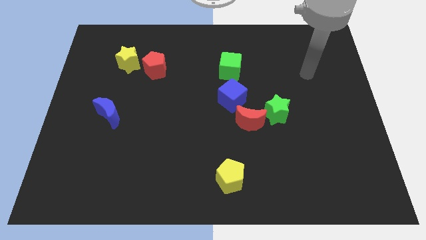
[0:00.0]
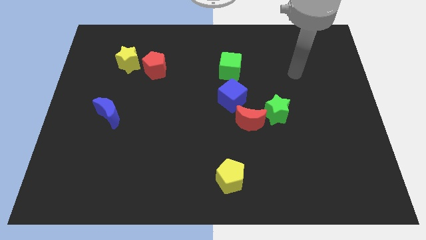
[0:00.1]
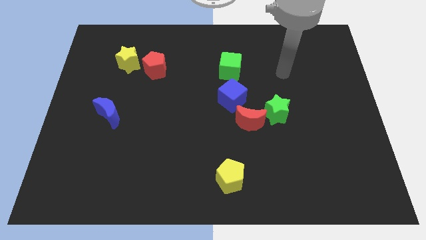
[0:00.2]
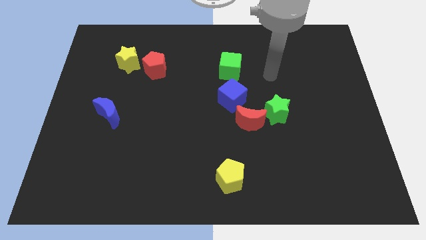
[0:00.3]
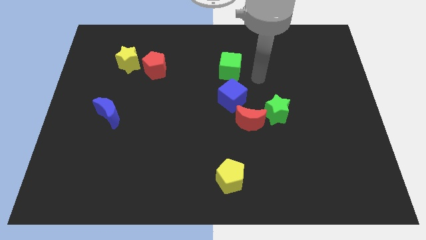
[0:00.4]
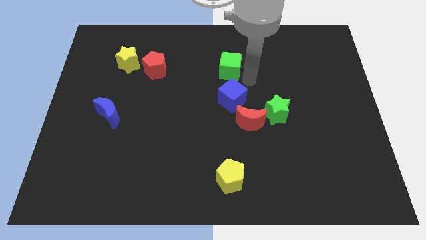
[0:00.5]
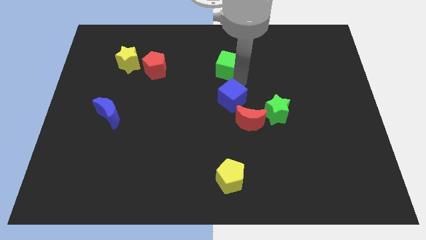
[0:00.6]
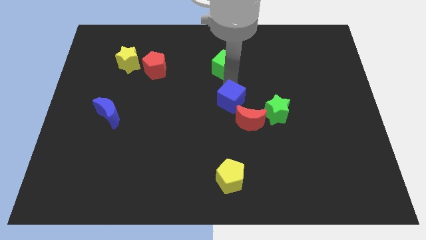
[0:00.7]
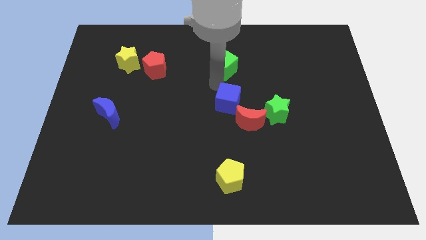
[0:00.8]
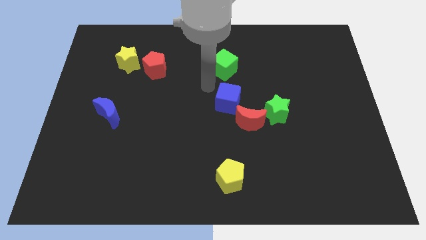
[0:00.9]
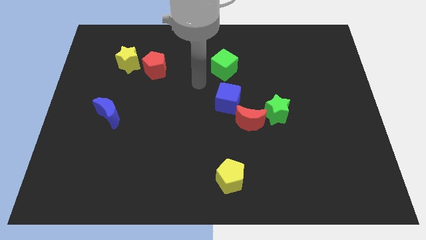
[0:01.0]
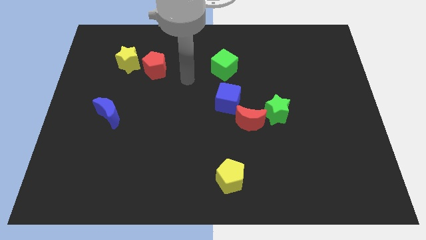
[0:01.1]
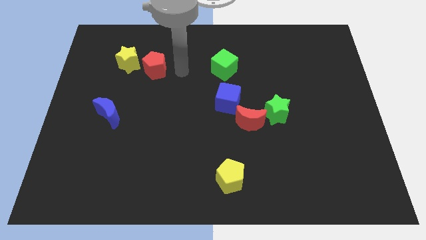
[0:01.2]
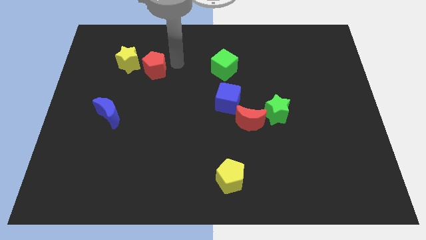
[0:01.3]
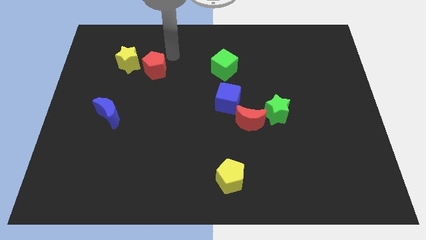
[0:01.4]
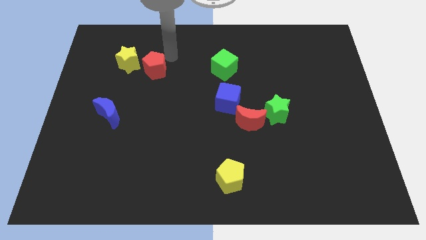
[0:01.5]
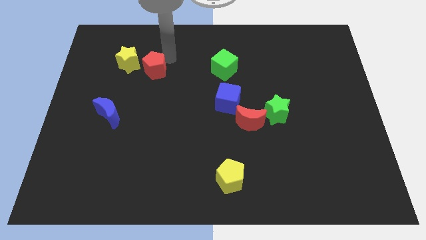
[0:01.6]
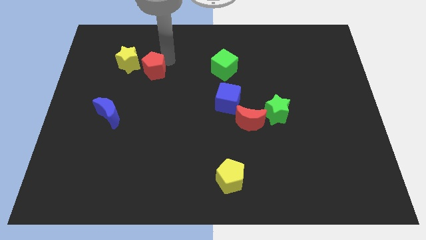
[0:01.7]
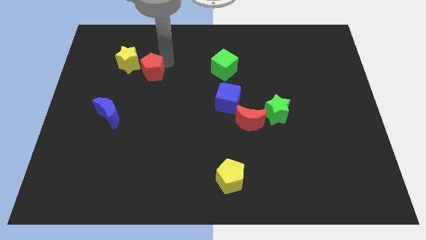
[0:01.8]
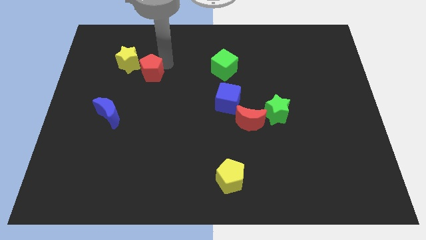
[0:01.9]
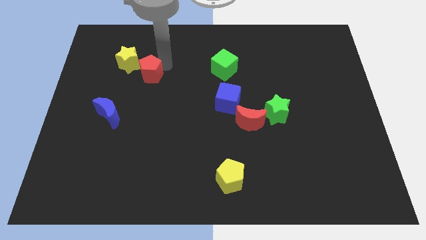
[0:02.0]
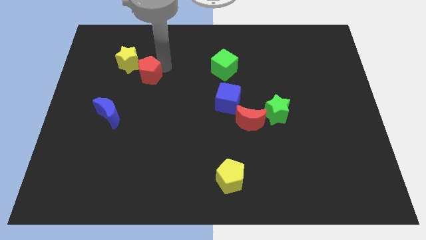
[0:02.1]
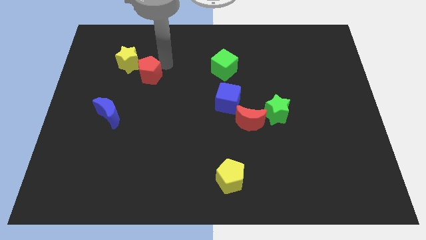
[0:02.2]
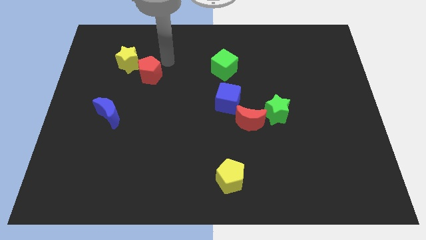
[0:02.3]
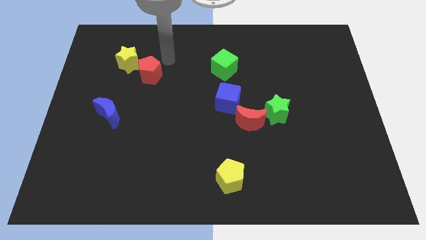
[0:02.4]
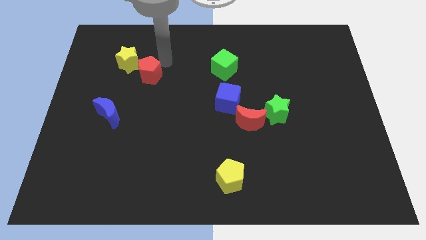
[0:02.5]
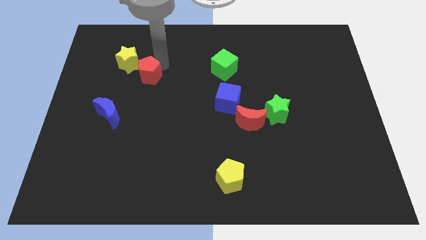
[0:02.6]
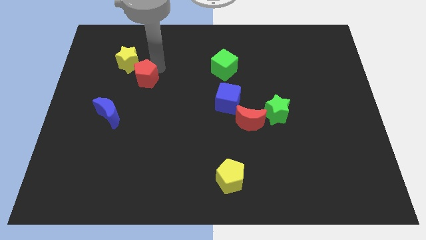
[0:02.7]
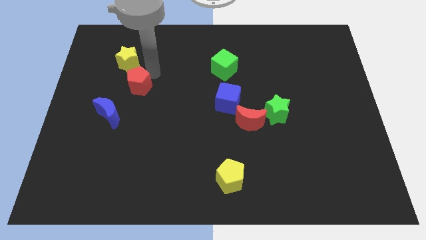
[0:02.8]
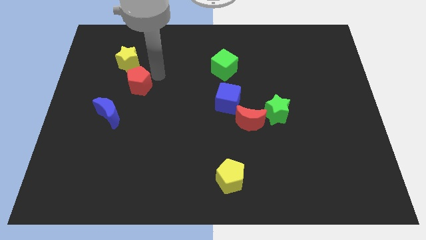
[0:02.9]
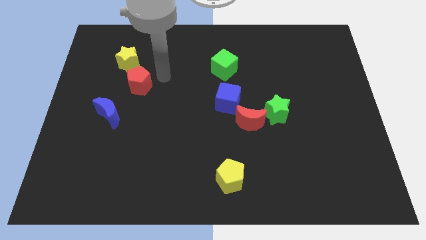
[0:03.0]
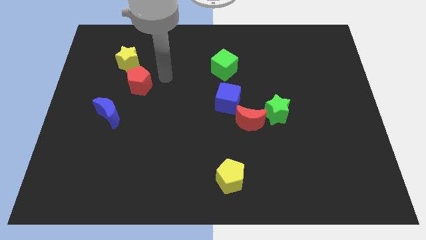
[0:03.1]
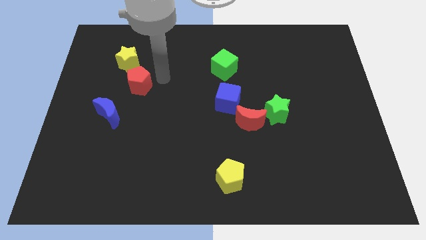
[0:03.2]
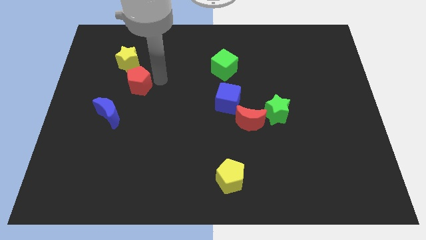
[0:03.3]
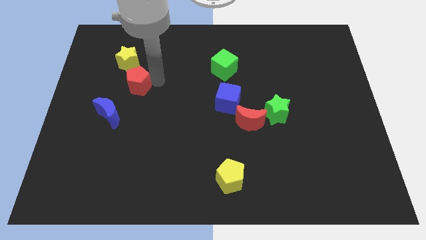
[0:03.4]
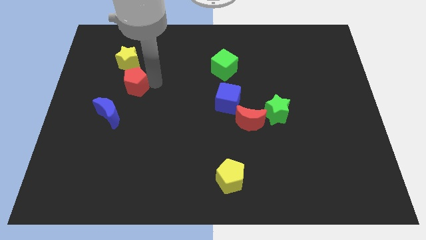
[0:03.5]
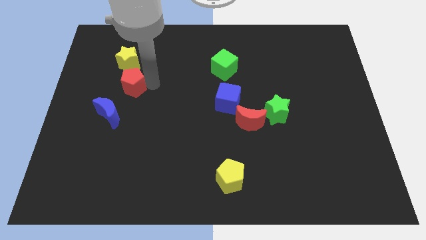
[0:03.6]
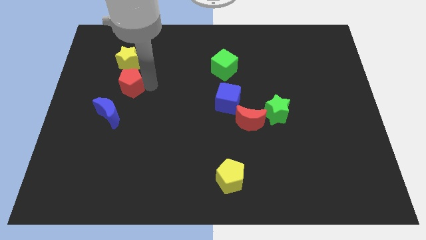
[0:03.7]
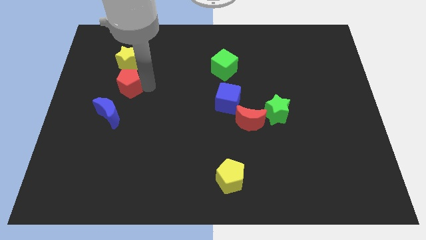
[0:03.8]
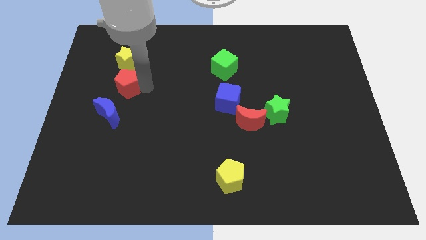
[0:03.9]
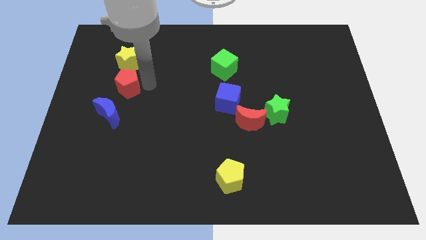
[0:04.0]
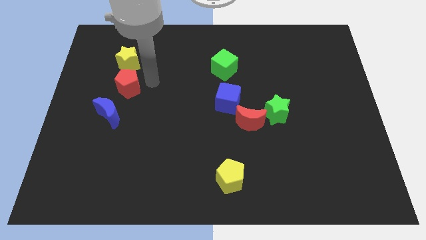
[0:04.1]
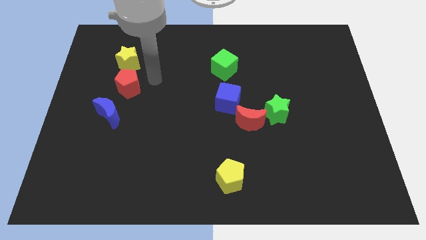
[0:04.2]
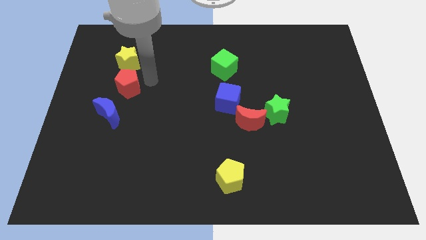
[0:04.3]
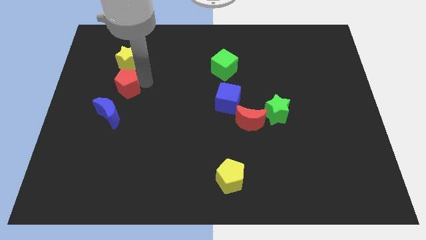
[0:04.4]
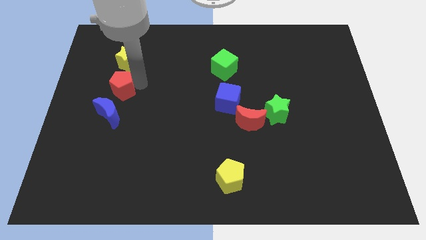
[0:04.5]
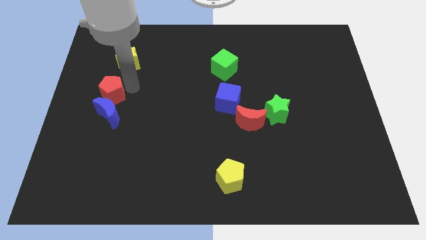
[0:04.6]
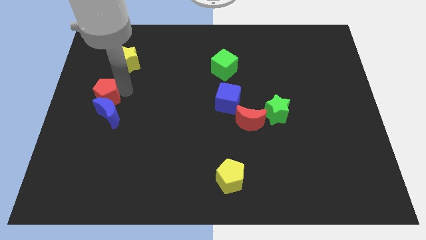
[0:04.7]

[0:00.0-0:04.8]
move the red pentagon to the left side of the board

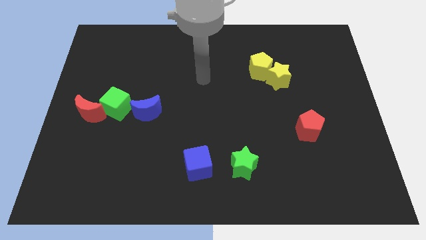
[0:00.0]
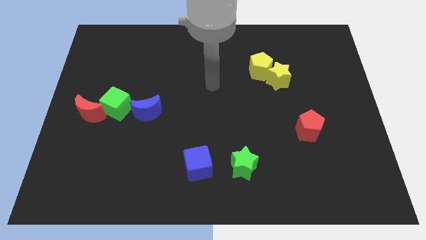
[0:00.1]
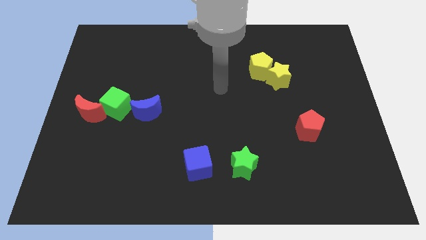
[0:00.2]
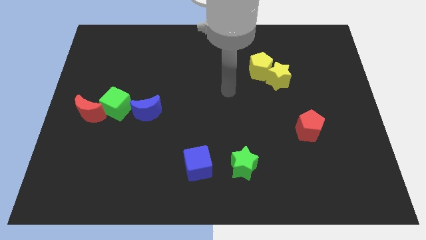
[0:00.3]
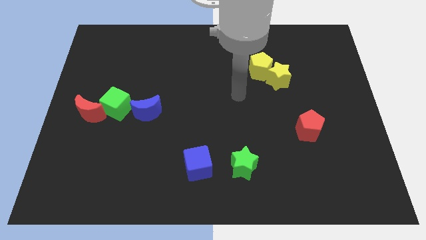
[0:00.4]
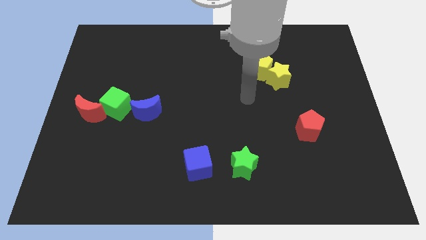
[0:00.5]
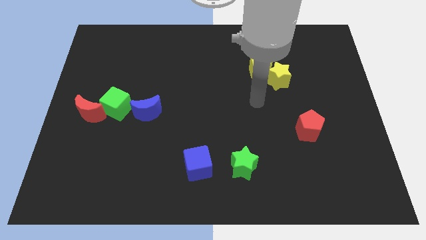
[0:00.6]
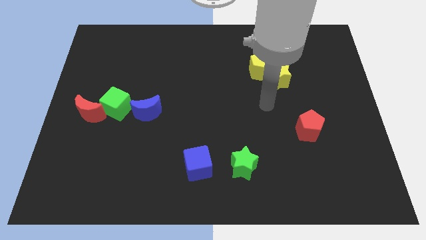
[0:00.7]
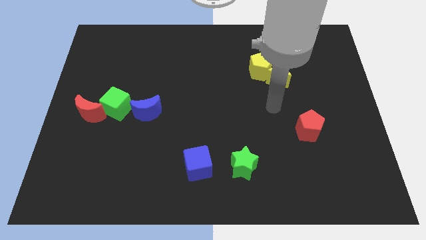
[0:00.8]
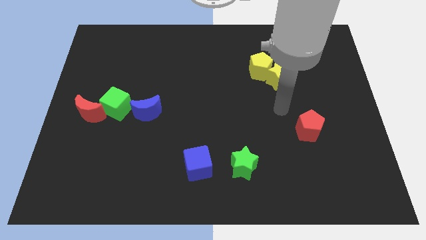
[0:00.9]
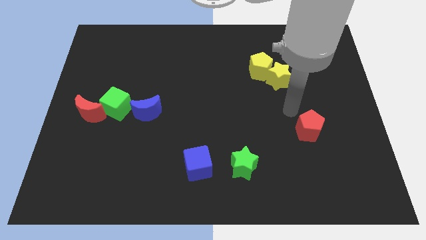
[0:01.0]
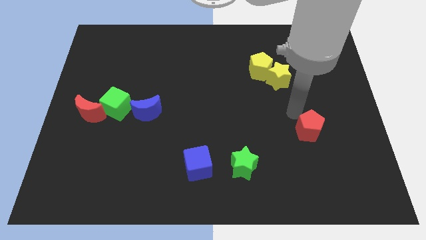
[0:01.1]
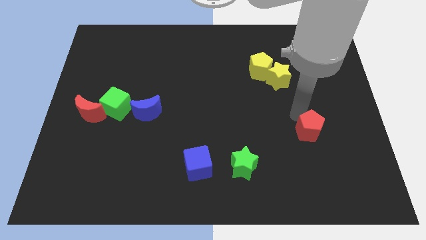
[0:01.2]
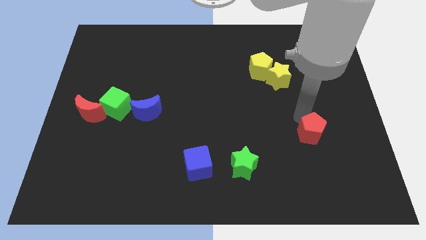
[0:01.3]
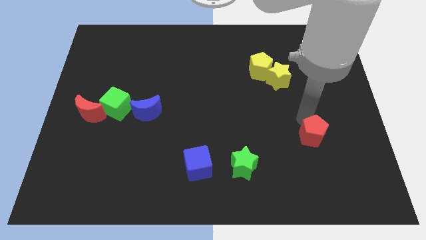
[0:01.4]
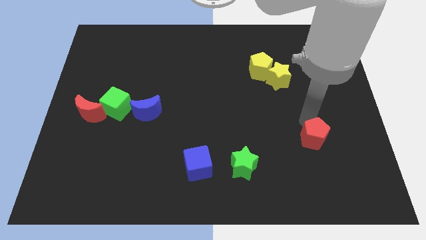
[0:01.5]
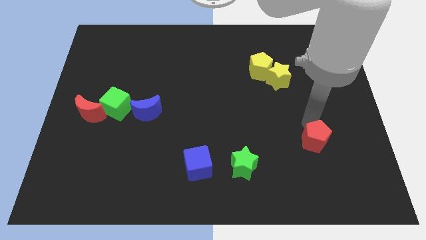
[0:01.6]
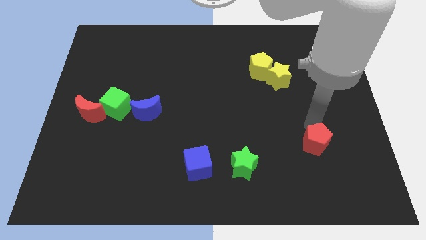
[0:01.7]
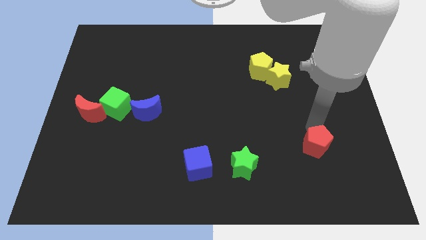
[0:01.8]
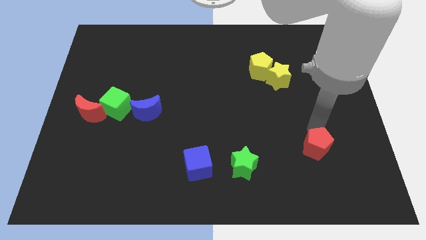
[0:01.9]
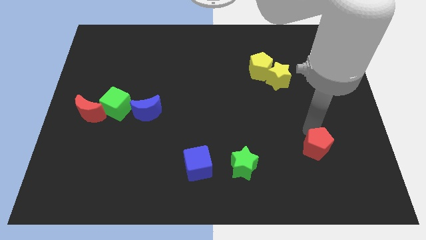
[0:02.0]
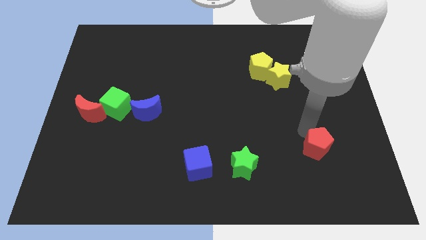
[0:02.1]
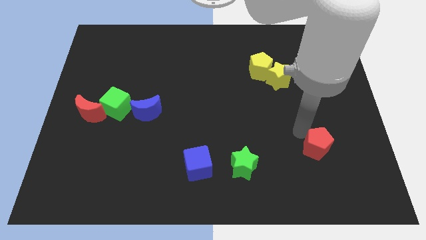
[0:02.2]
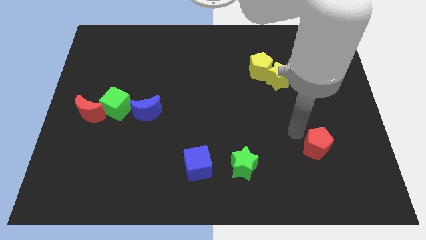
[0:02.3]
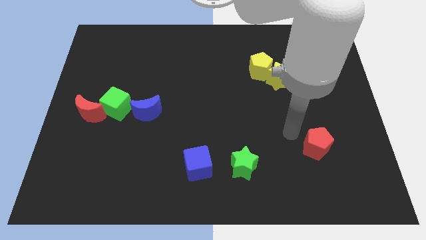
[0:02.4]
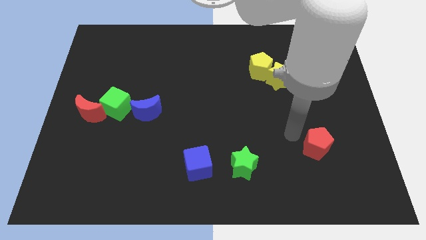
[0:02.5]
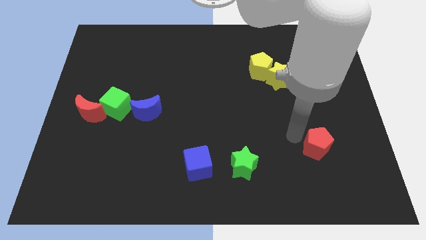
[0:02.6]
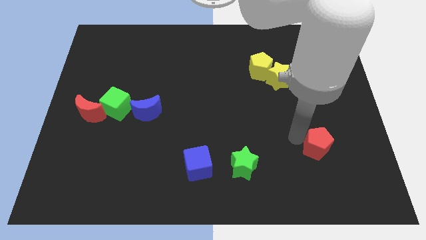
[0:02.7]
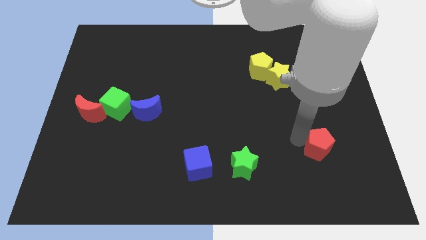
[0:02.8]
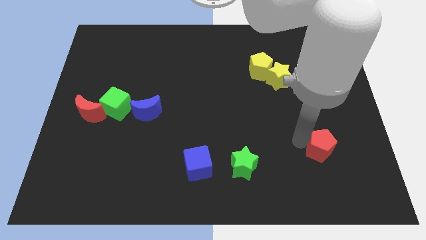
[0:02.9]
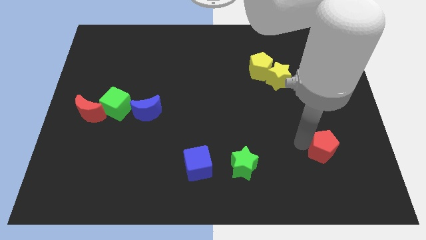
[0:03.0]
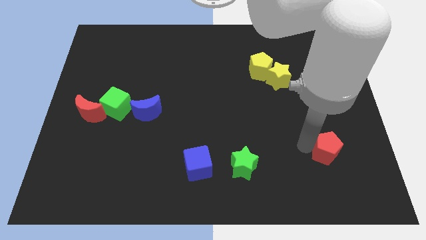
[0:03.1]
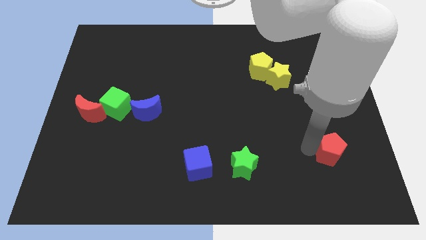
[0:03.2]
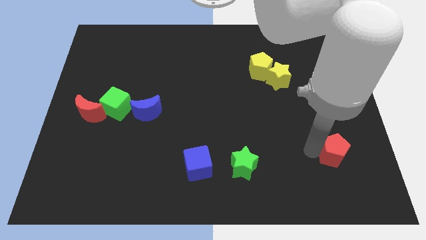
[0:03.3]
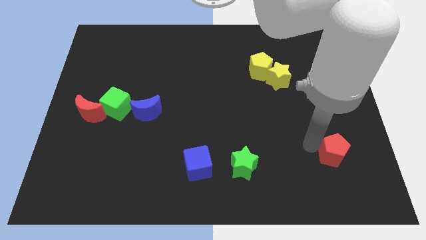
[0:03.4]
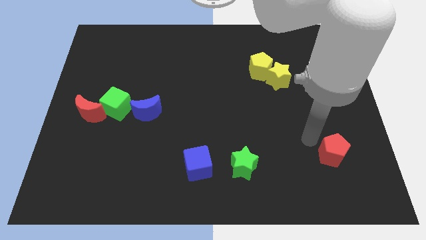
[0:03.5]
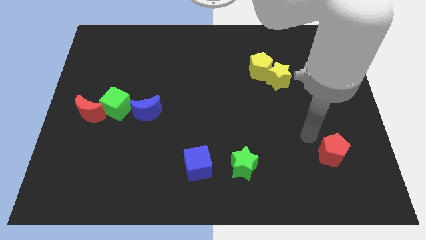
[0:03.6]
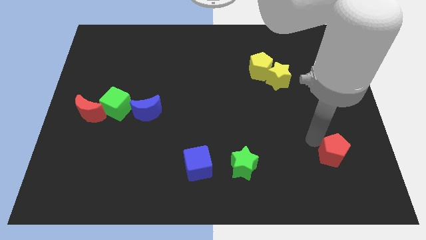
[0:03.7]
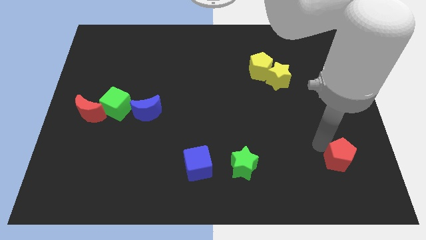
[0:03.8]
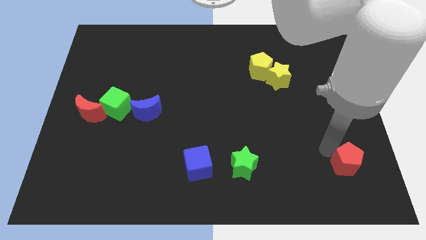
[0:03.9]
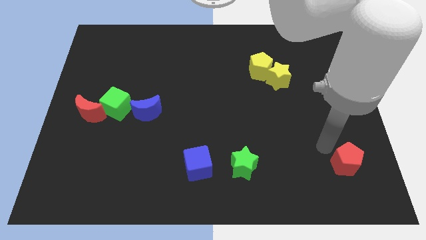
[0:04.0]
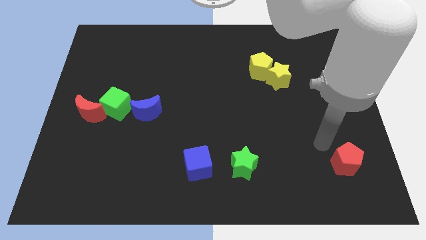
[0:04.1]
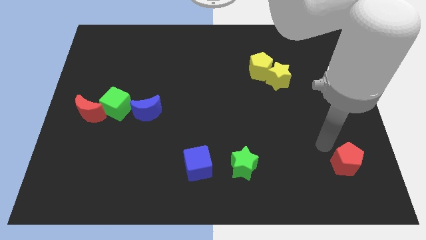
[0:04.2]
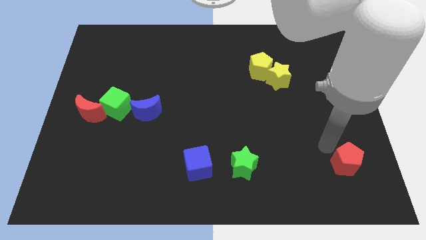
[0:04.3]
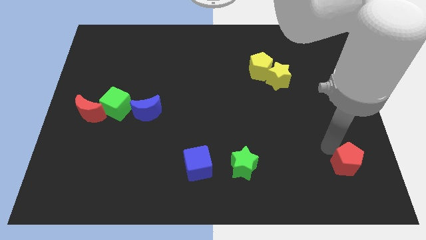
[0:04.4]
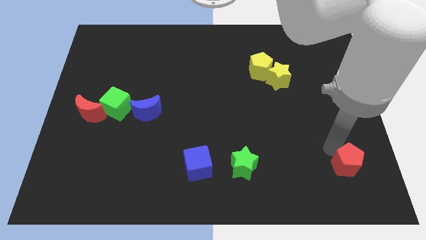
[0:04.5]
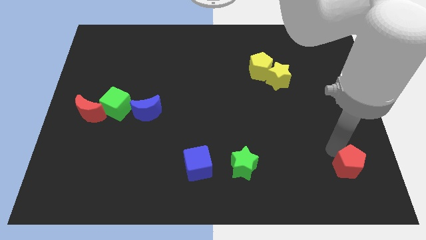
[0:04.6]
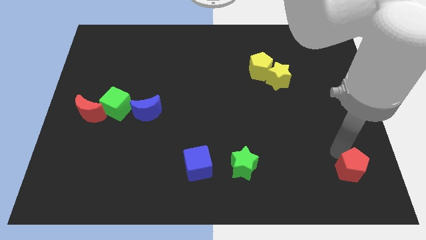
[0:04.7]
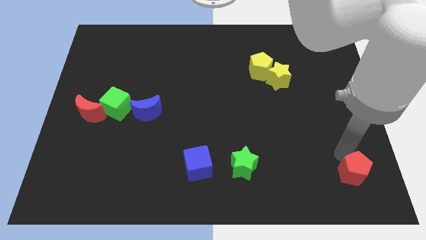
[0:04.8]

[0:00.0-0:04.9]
push the red pentagon to the bottom right of the board
